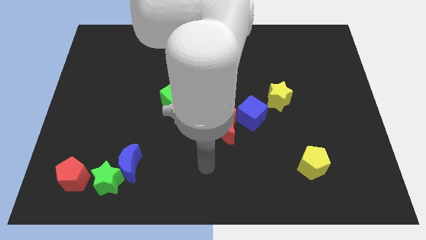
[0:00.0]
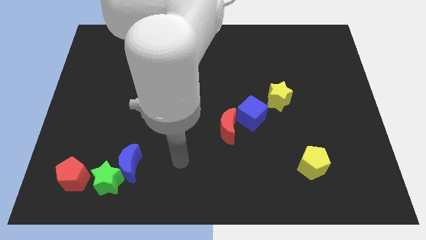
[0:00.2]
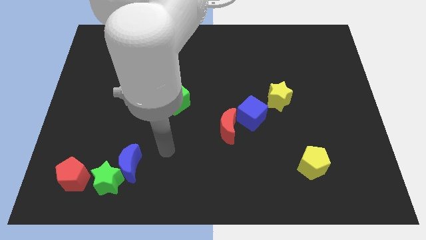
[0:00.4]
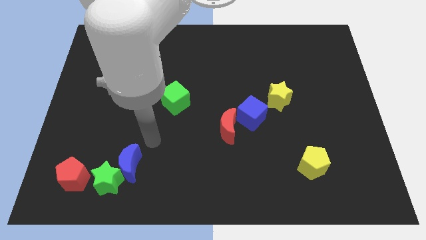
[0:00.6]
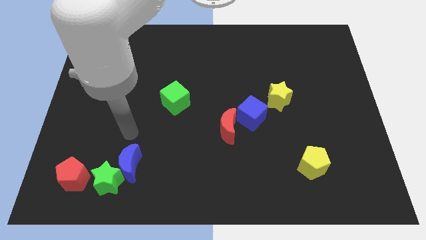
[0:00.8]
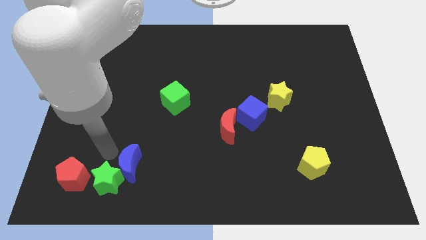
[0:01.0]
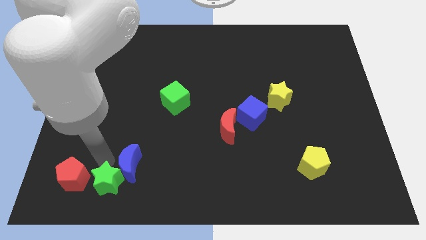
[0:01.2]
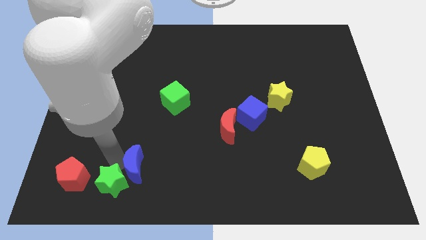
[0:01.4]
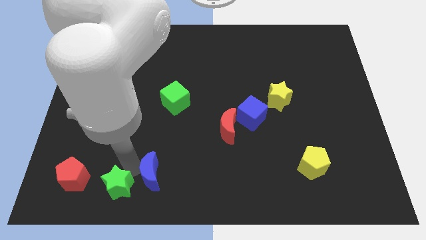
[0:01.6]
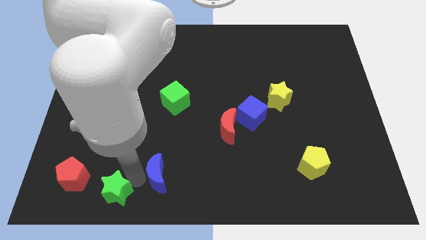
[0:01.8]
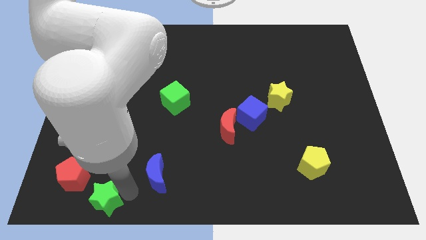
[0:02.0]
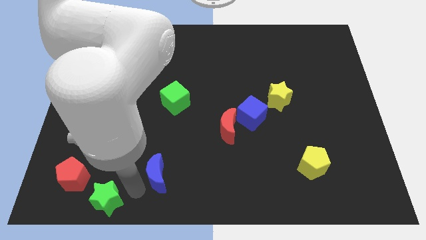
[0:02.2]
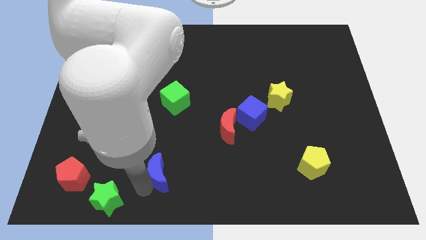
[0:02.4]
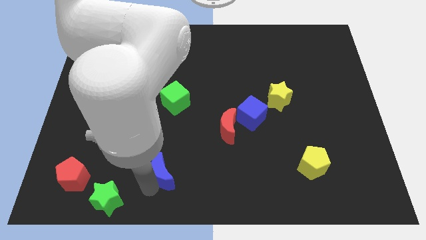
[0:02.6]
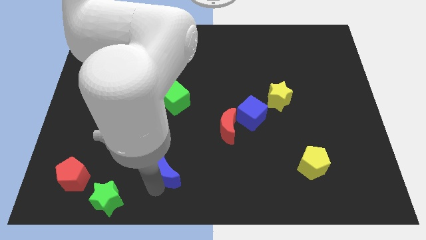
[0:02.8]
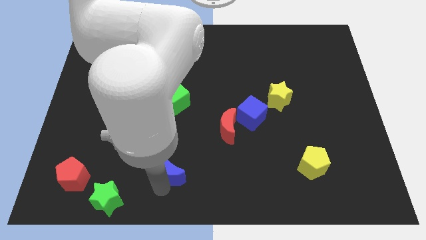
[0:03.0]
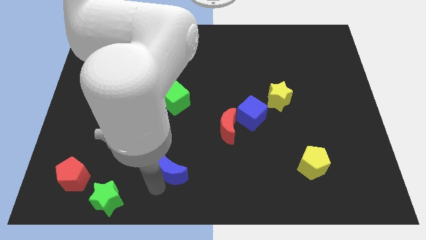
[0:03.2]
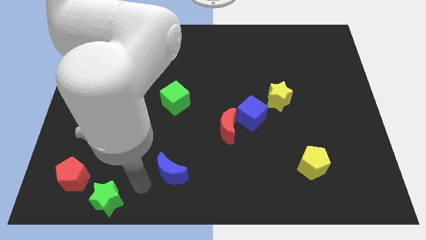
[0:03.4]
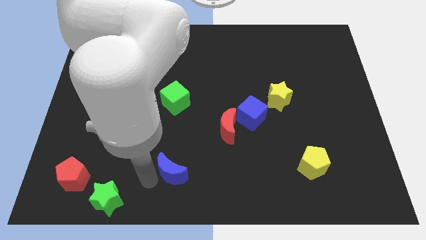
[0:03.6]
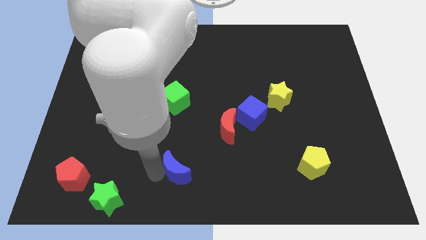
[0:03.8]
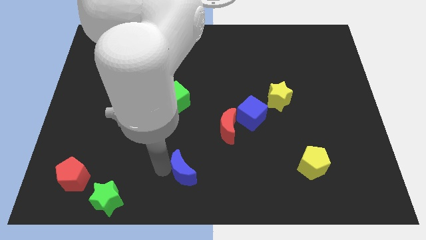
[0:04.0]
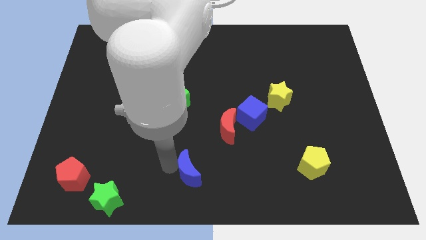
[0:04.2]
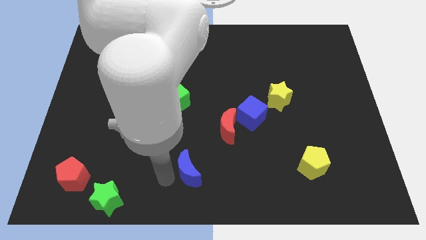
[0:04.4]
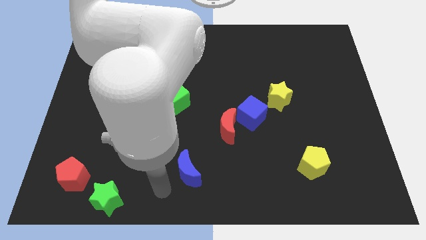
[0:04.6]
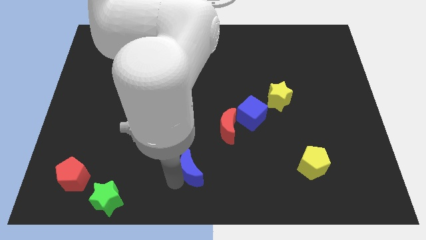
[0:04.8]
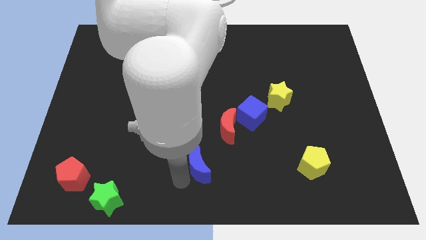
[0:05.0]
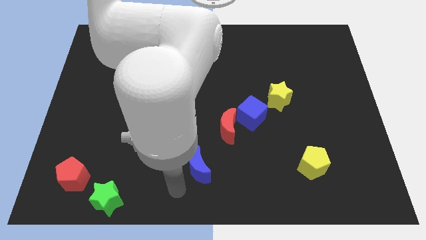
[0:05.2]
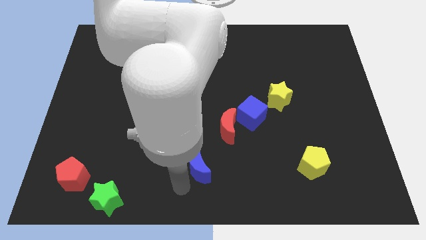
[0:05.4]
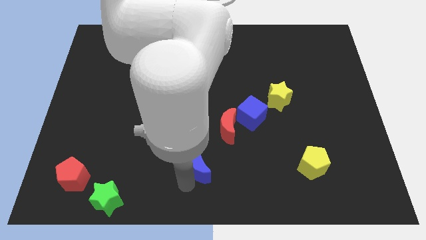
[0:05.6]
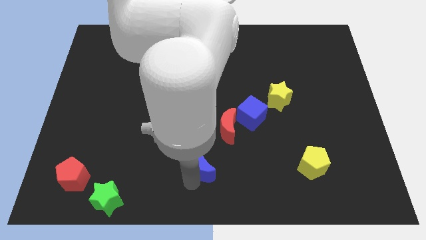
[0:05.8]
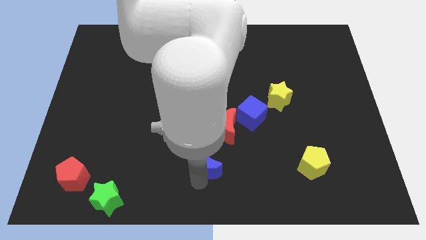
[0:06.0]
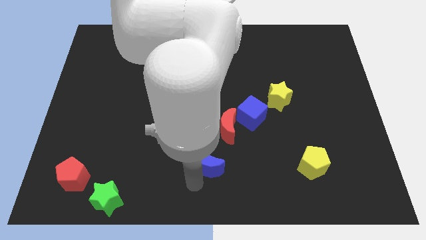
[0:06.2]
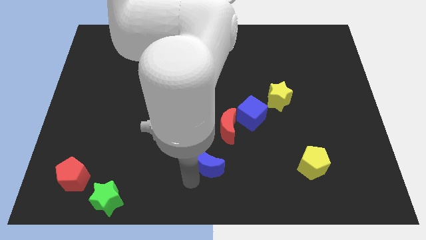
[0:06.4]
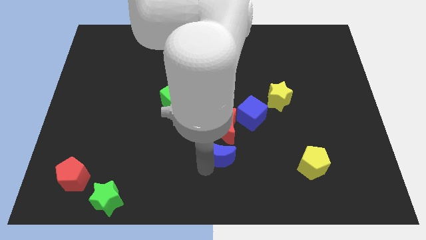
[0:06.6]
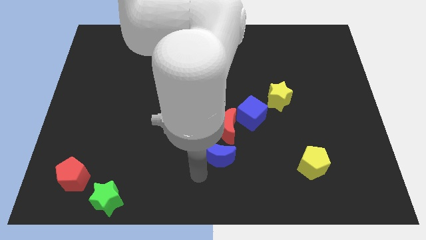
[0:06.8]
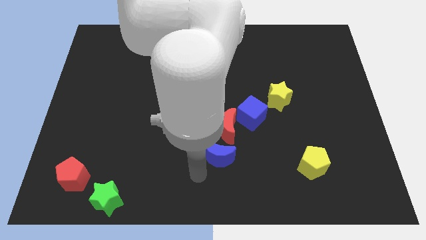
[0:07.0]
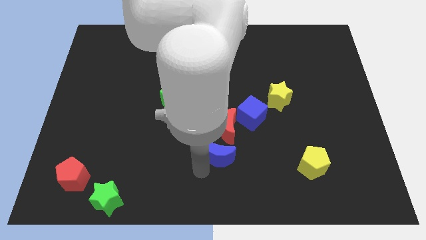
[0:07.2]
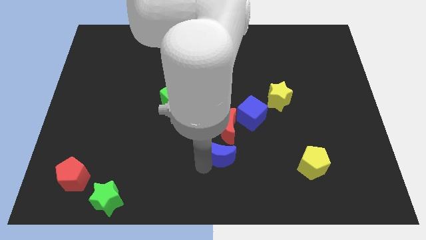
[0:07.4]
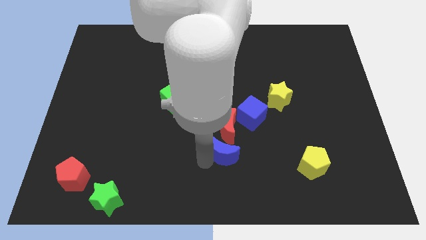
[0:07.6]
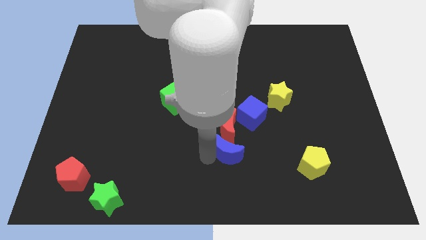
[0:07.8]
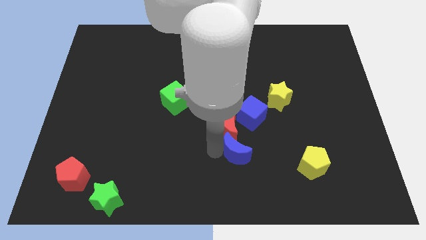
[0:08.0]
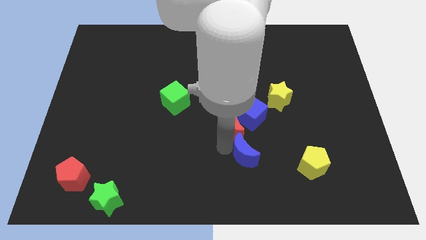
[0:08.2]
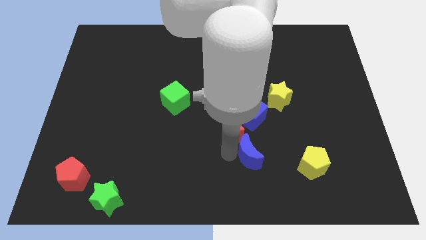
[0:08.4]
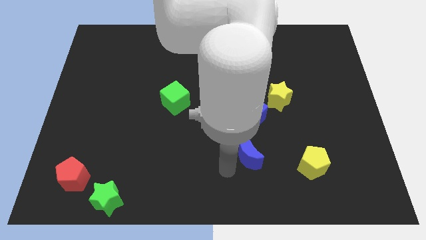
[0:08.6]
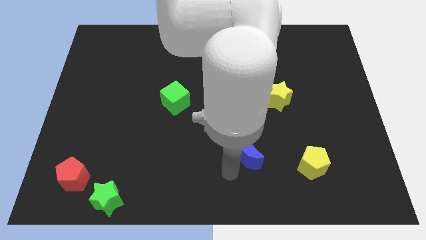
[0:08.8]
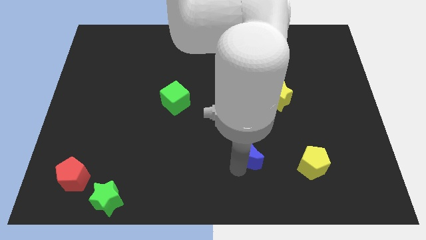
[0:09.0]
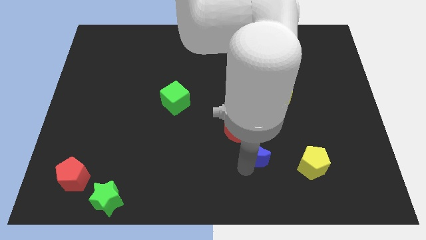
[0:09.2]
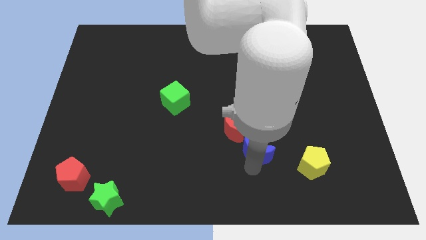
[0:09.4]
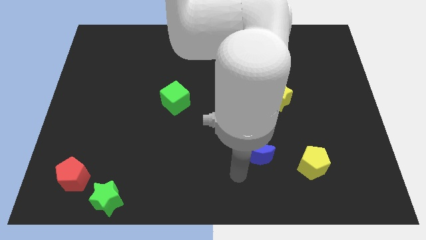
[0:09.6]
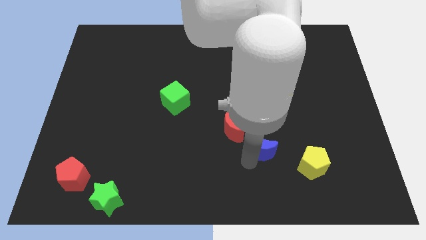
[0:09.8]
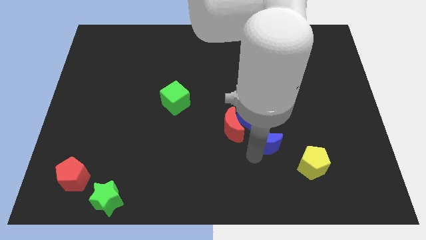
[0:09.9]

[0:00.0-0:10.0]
push the blue moon right of the red moon

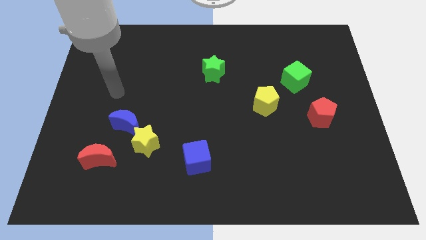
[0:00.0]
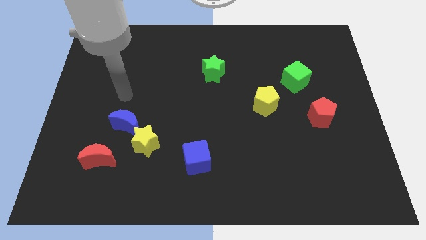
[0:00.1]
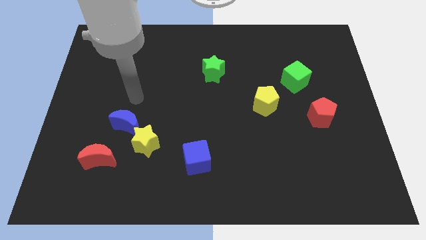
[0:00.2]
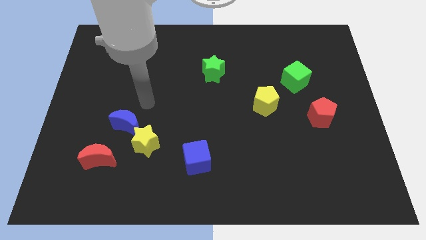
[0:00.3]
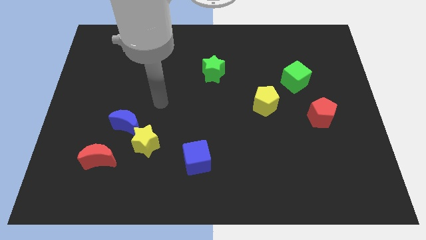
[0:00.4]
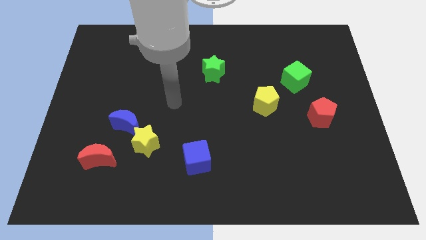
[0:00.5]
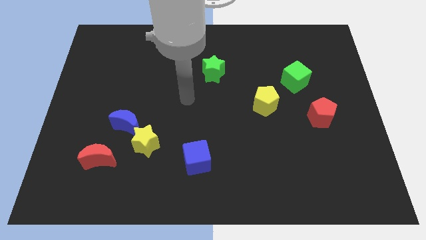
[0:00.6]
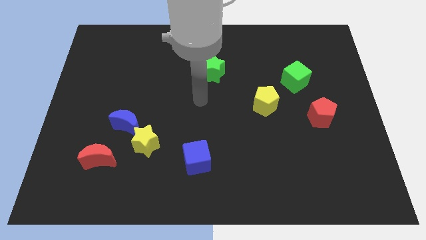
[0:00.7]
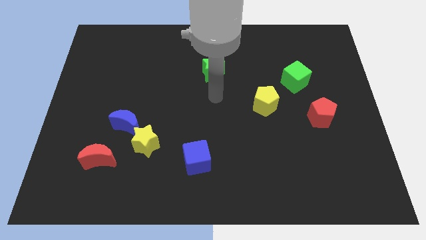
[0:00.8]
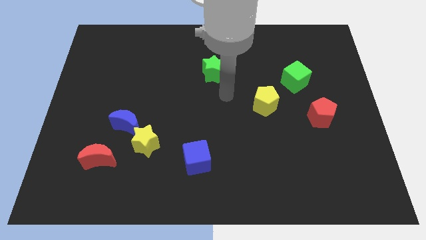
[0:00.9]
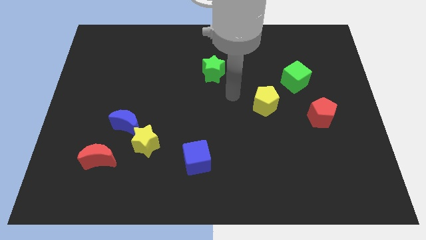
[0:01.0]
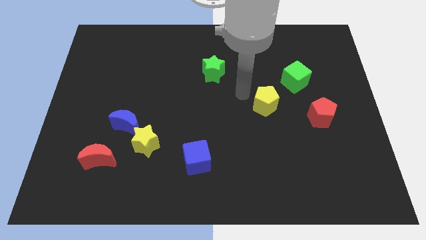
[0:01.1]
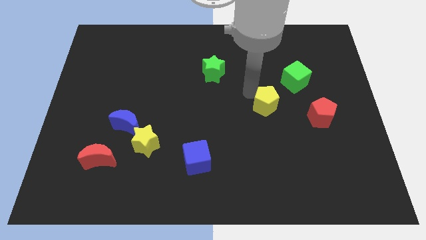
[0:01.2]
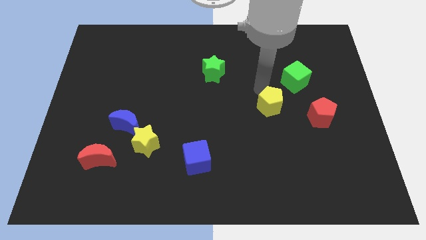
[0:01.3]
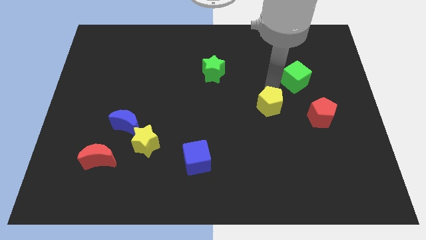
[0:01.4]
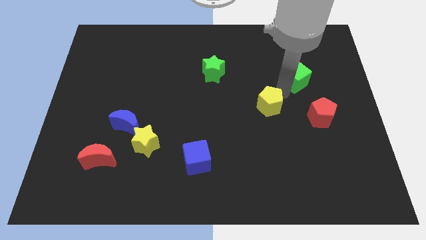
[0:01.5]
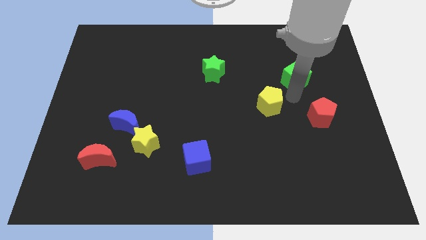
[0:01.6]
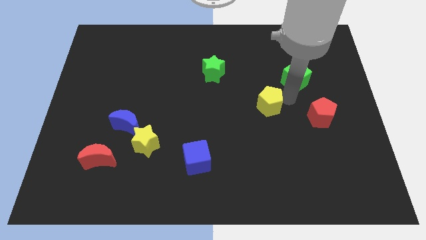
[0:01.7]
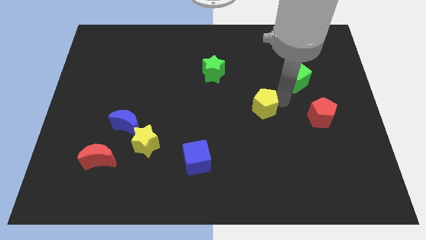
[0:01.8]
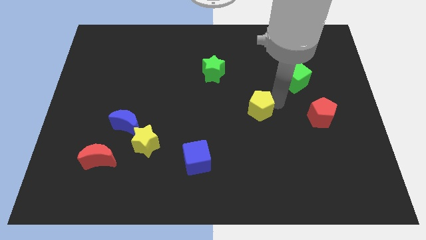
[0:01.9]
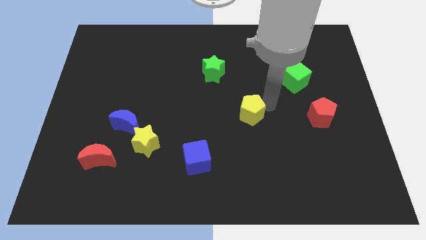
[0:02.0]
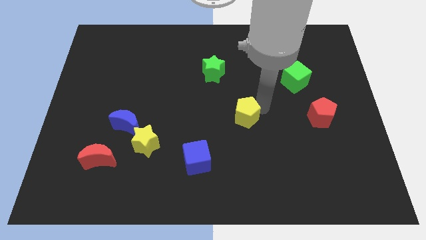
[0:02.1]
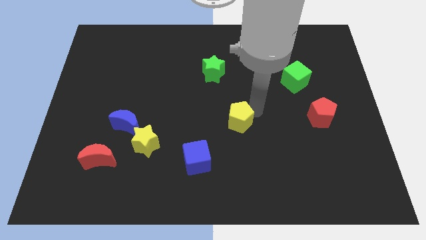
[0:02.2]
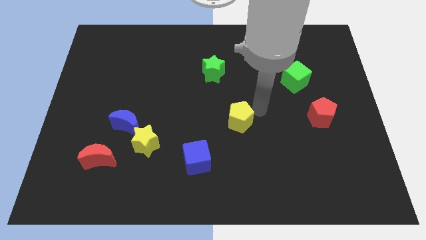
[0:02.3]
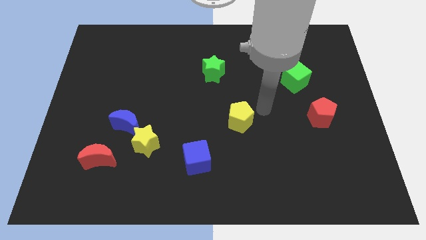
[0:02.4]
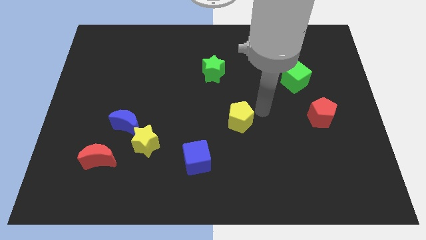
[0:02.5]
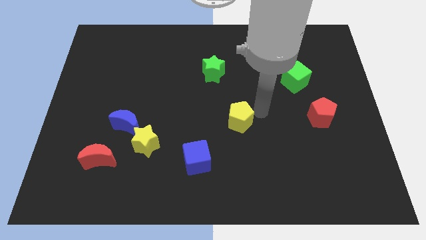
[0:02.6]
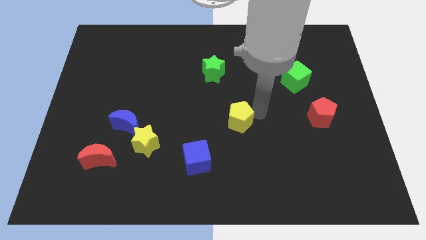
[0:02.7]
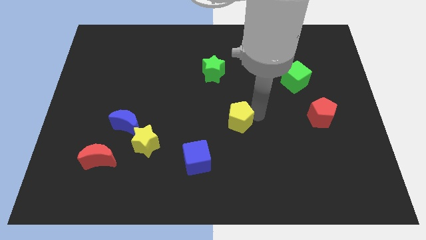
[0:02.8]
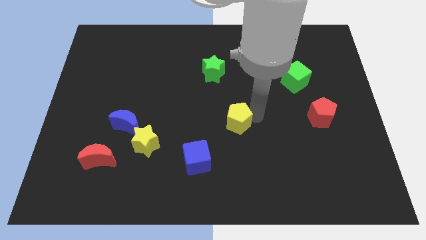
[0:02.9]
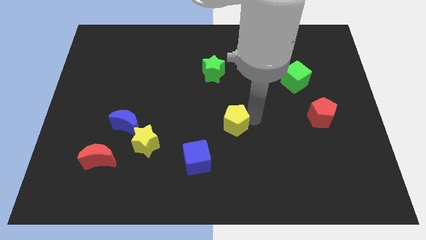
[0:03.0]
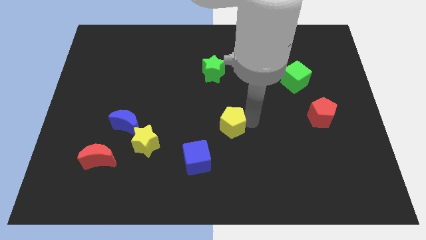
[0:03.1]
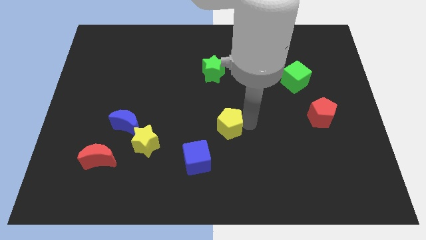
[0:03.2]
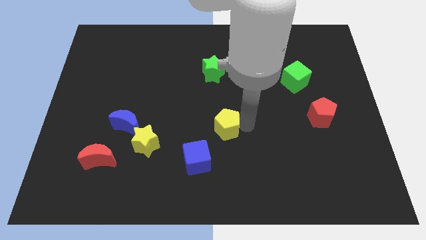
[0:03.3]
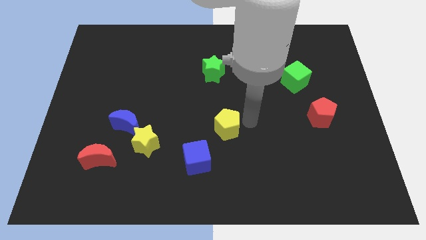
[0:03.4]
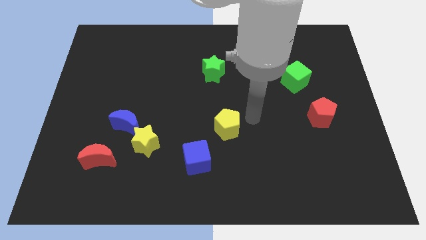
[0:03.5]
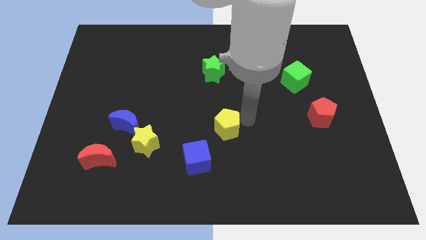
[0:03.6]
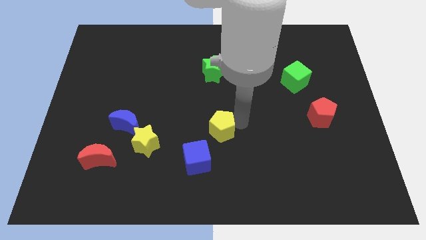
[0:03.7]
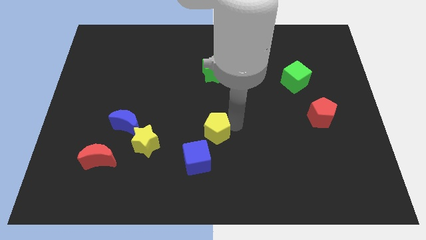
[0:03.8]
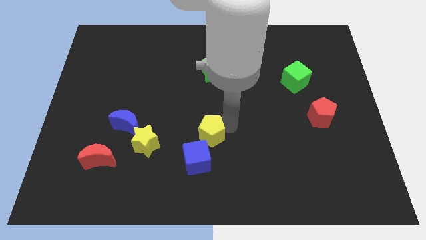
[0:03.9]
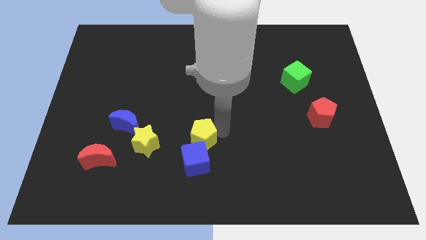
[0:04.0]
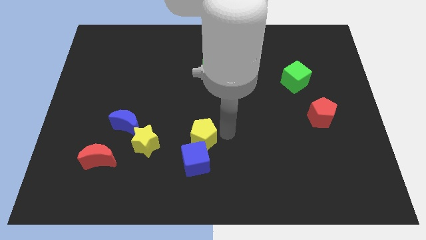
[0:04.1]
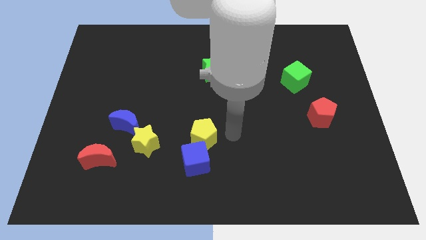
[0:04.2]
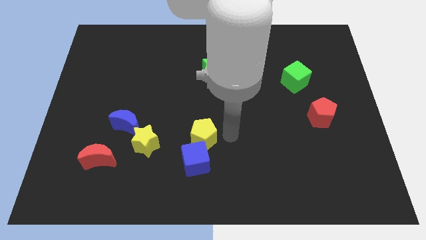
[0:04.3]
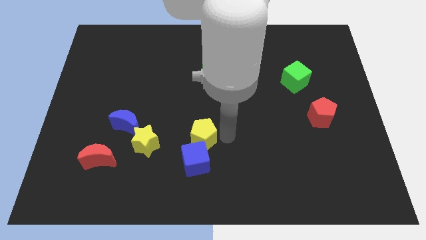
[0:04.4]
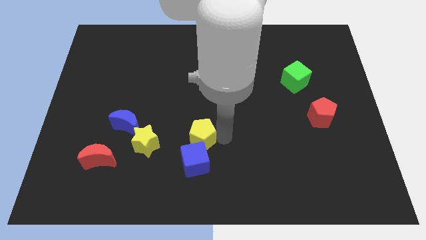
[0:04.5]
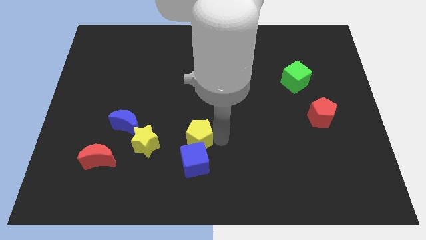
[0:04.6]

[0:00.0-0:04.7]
push the yellow pentagon to the top left side of the blue cube
